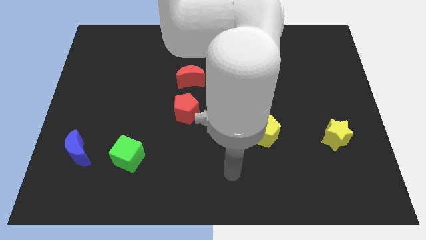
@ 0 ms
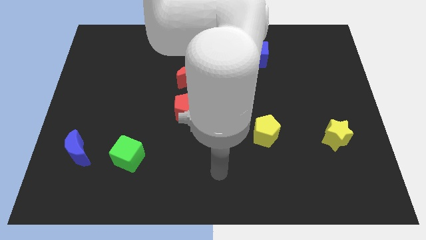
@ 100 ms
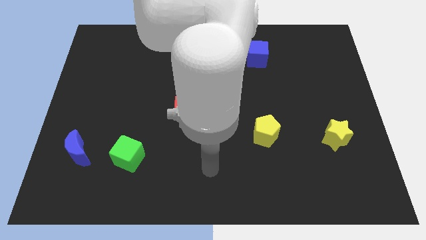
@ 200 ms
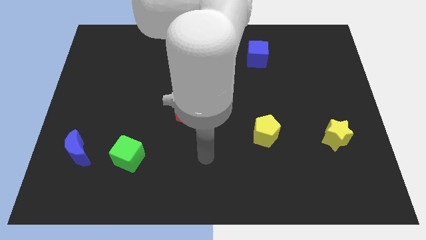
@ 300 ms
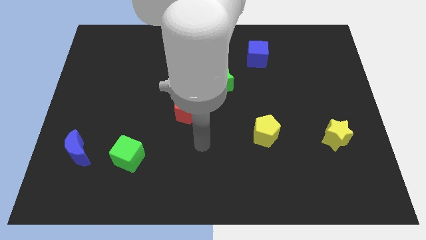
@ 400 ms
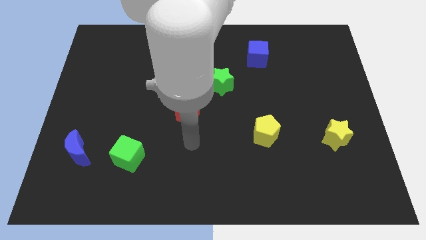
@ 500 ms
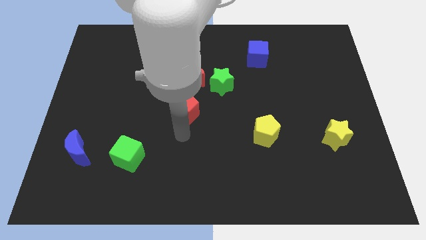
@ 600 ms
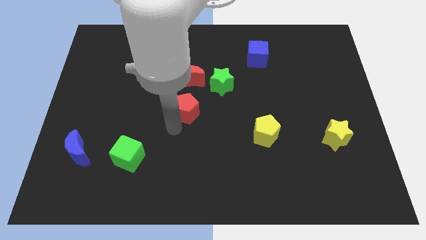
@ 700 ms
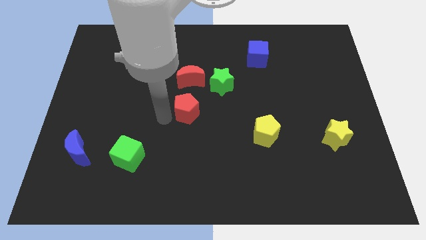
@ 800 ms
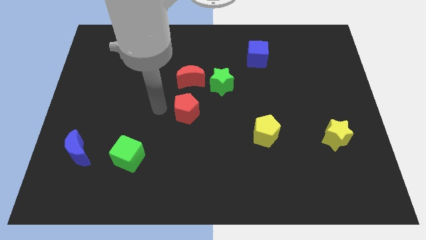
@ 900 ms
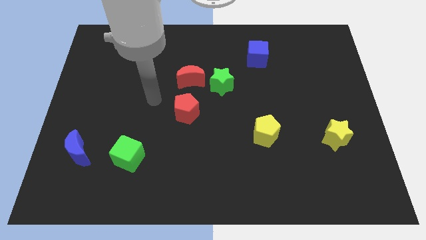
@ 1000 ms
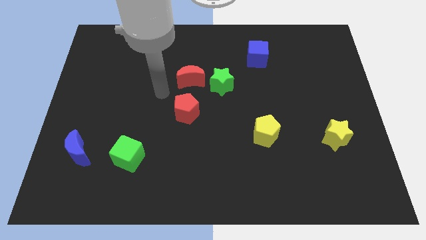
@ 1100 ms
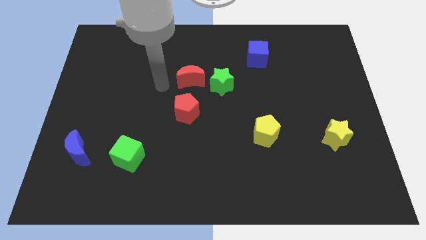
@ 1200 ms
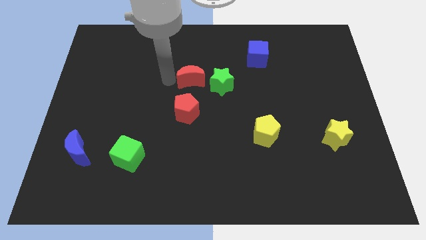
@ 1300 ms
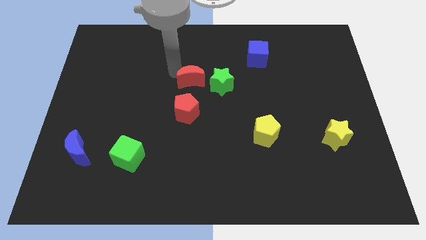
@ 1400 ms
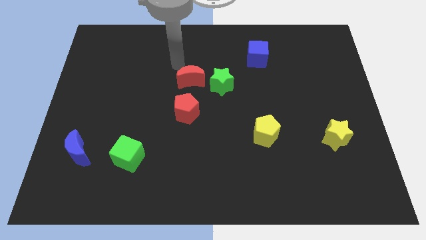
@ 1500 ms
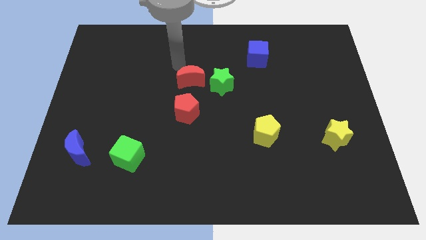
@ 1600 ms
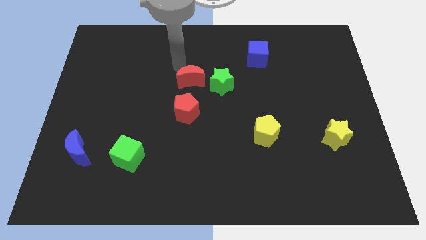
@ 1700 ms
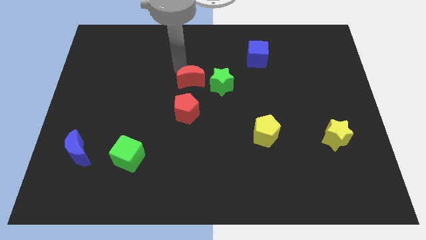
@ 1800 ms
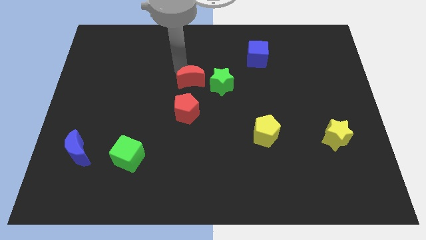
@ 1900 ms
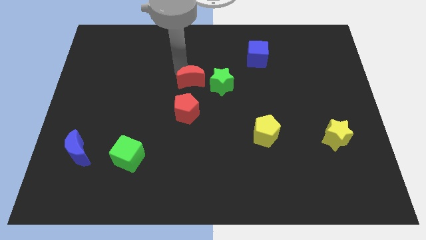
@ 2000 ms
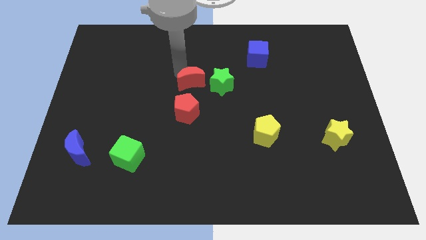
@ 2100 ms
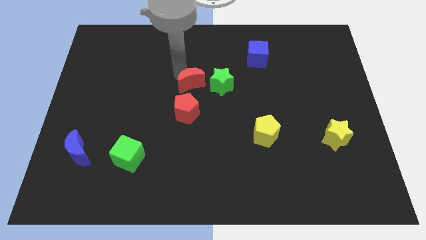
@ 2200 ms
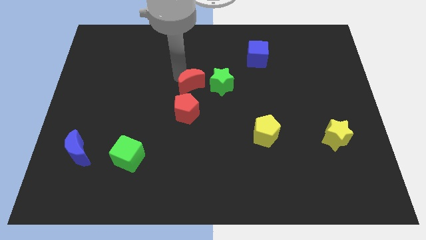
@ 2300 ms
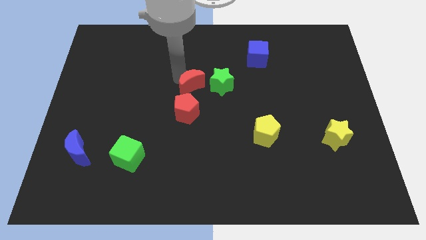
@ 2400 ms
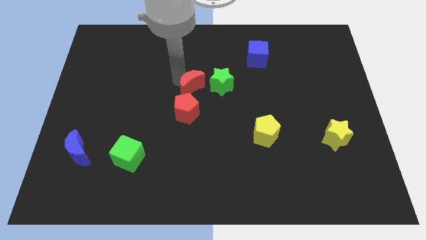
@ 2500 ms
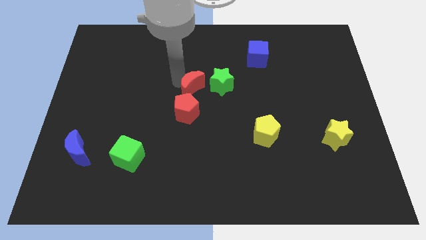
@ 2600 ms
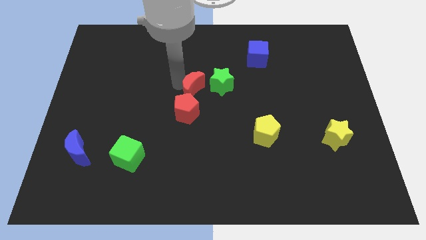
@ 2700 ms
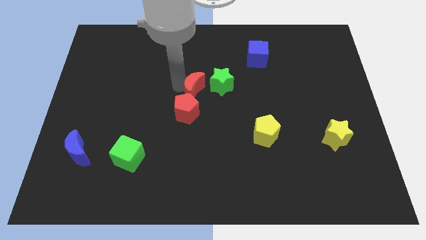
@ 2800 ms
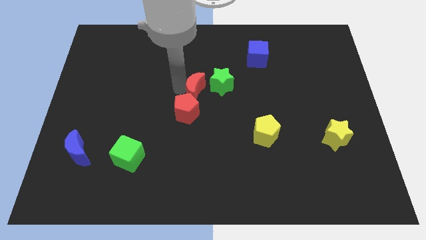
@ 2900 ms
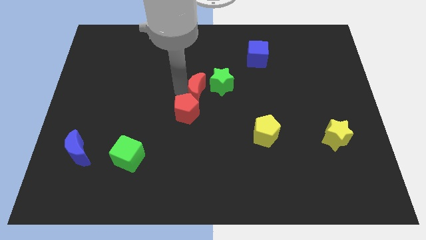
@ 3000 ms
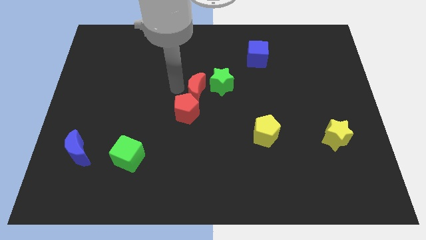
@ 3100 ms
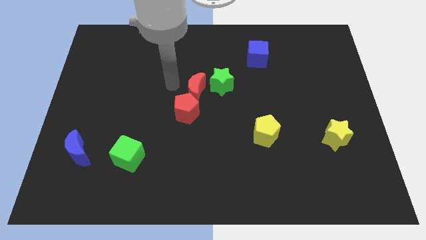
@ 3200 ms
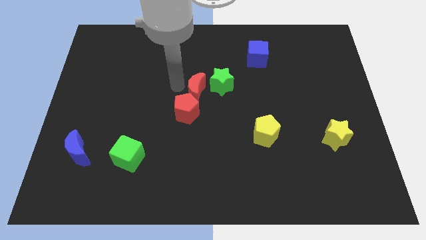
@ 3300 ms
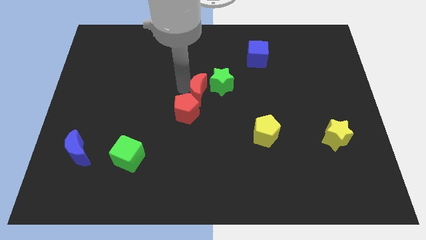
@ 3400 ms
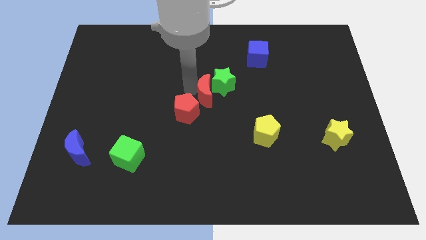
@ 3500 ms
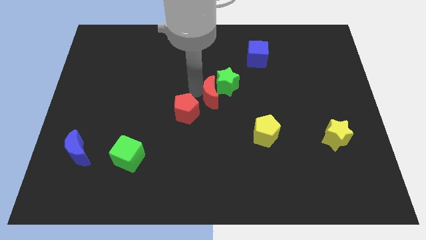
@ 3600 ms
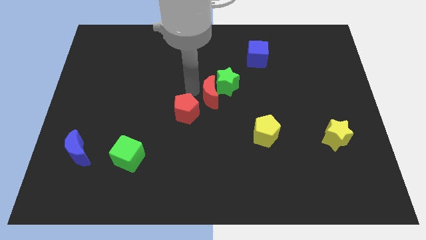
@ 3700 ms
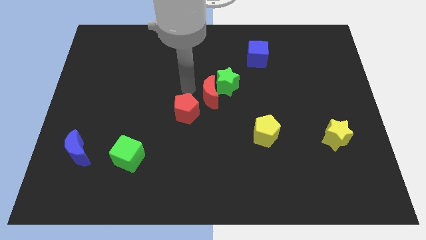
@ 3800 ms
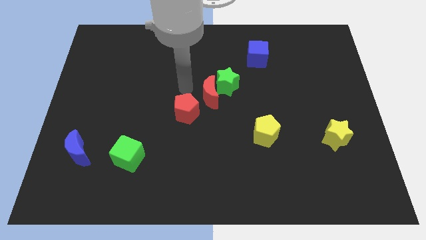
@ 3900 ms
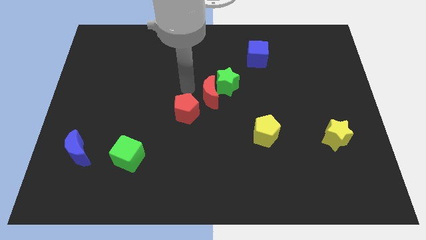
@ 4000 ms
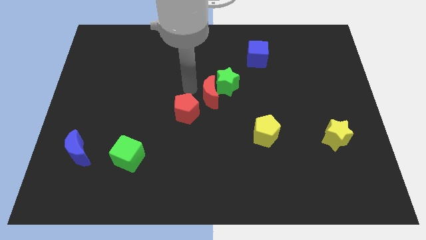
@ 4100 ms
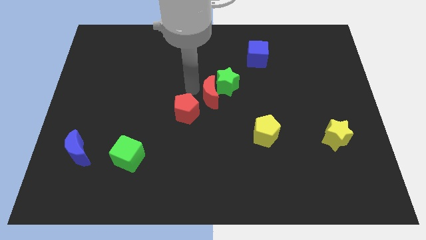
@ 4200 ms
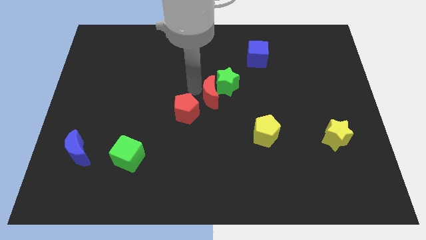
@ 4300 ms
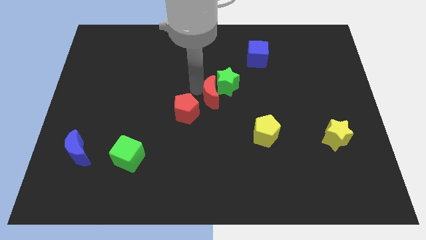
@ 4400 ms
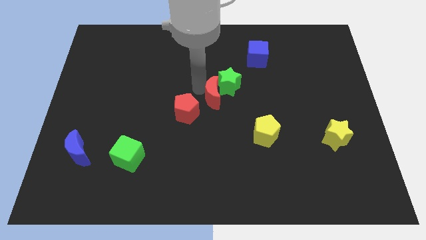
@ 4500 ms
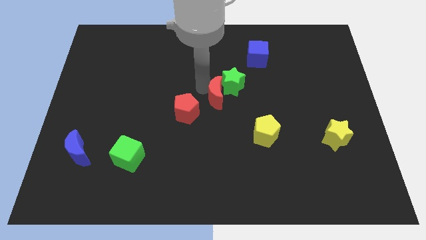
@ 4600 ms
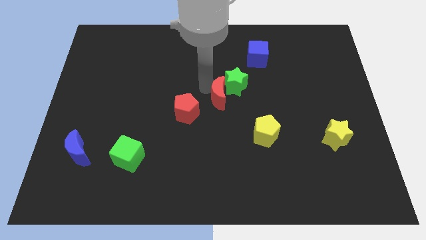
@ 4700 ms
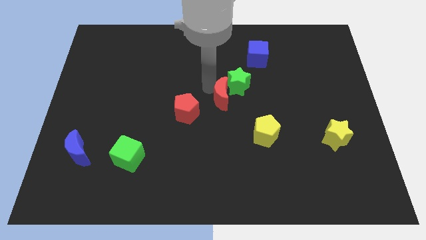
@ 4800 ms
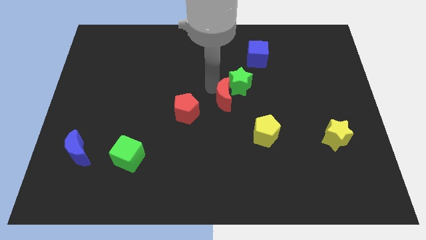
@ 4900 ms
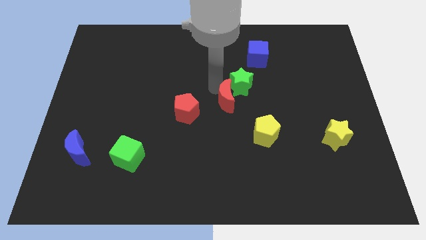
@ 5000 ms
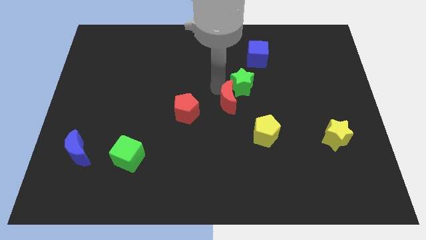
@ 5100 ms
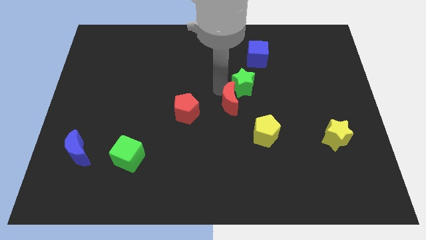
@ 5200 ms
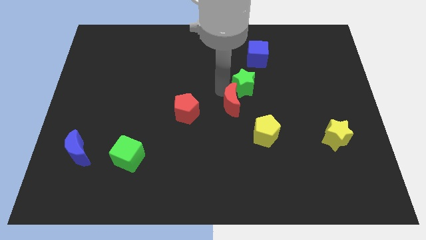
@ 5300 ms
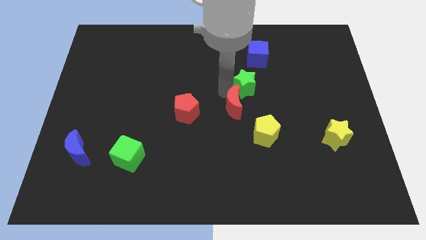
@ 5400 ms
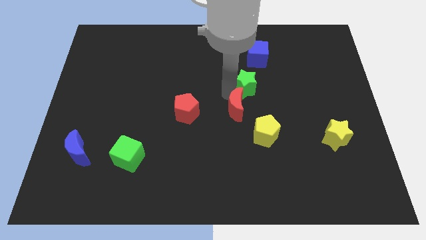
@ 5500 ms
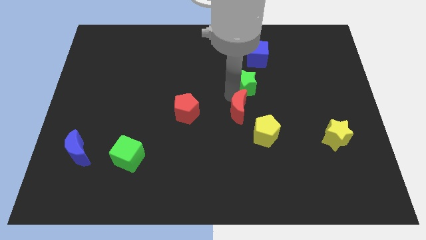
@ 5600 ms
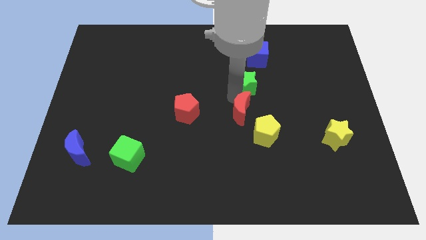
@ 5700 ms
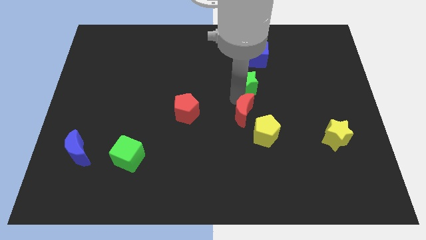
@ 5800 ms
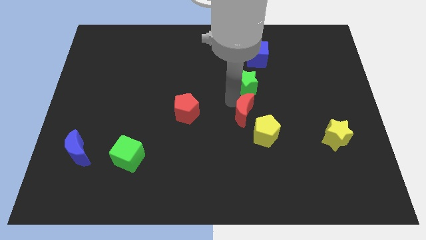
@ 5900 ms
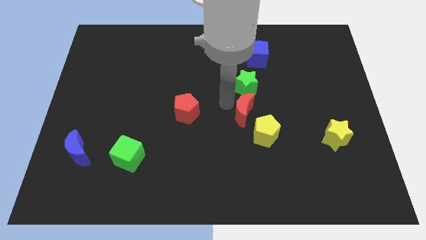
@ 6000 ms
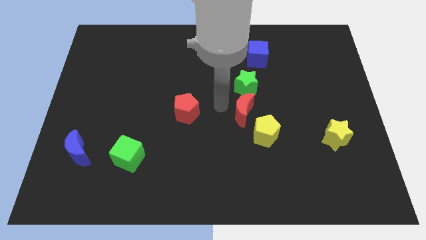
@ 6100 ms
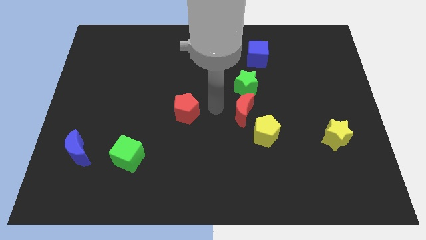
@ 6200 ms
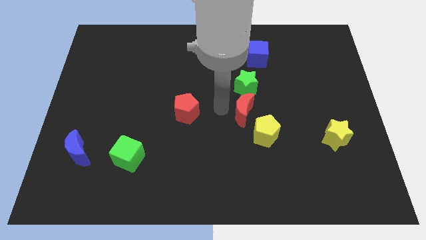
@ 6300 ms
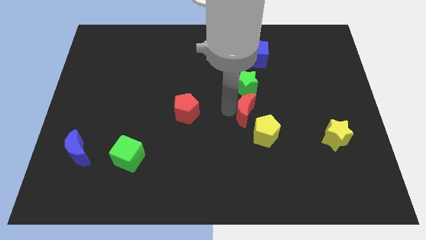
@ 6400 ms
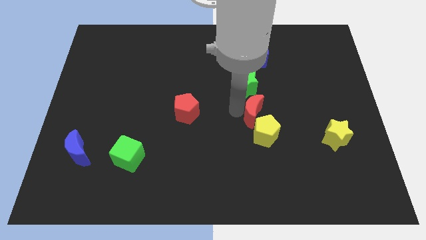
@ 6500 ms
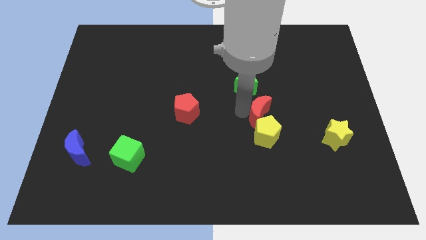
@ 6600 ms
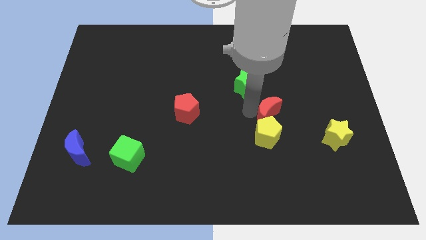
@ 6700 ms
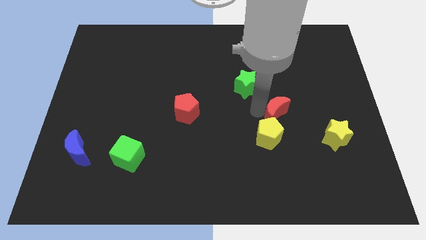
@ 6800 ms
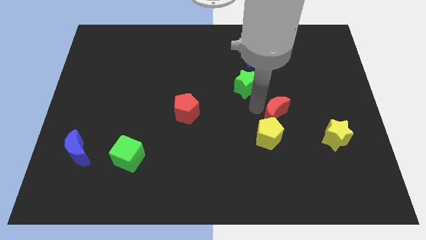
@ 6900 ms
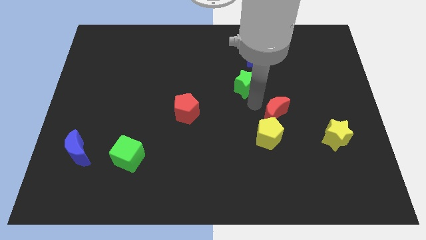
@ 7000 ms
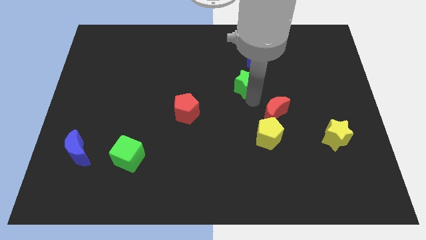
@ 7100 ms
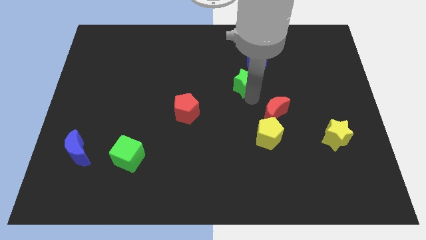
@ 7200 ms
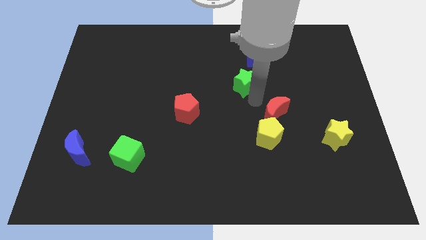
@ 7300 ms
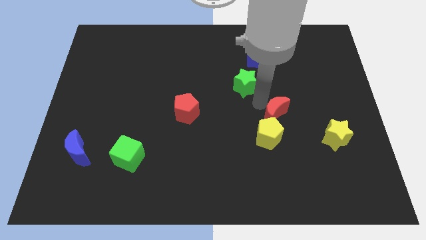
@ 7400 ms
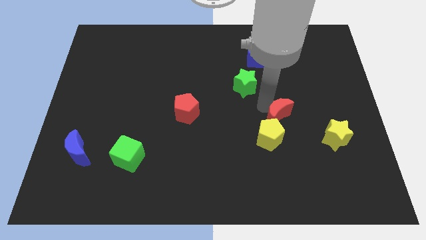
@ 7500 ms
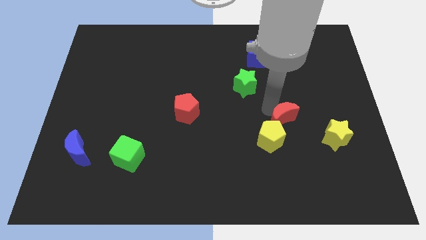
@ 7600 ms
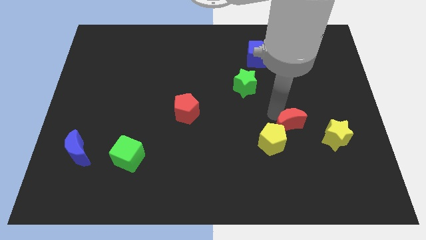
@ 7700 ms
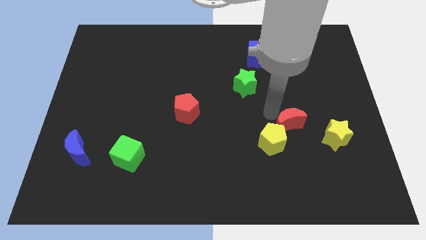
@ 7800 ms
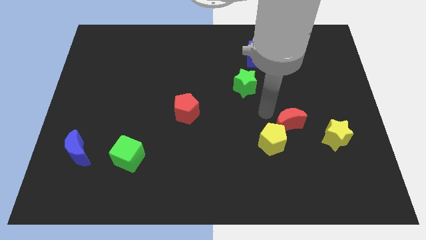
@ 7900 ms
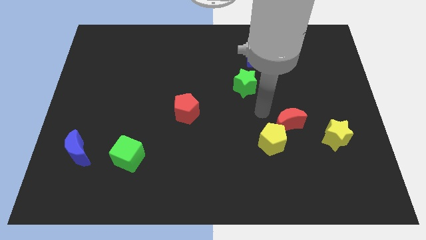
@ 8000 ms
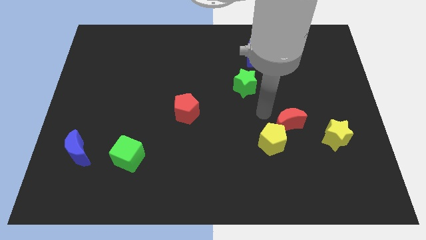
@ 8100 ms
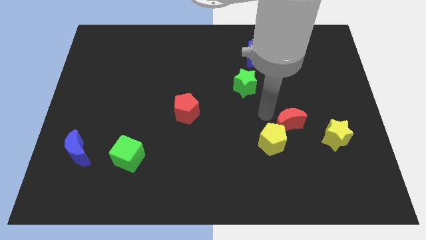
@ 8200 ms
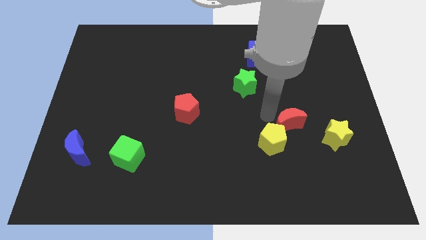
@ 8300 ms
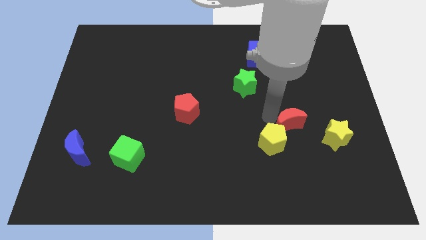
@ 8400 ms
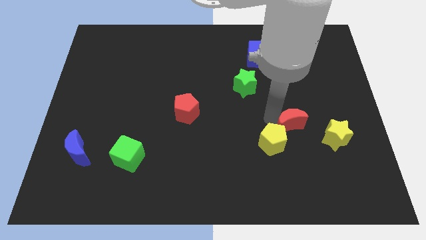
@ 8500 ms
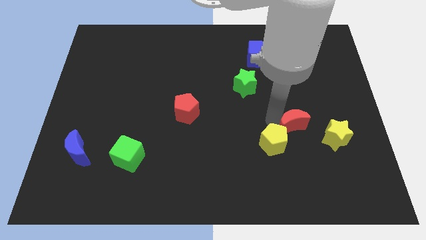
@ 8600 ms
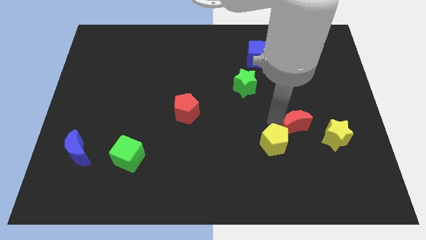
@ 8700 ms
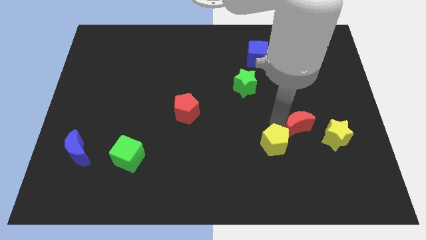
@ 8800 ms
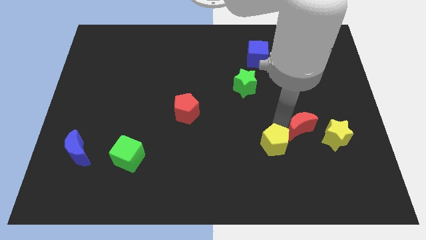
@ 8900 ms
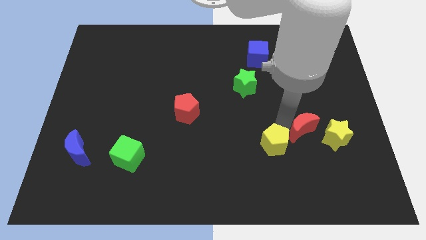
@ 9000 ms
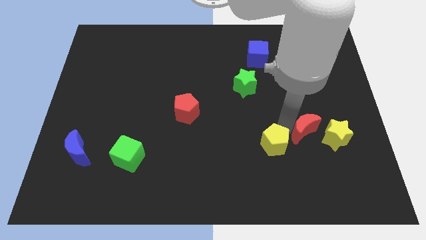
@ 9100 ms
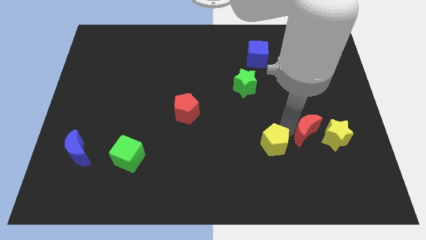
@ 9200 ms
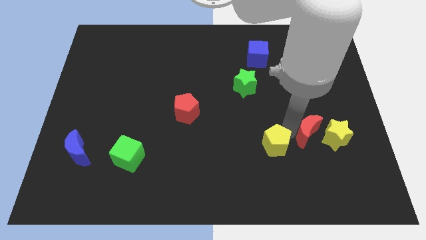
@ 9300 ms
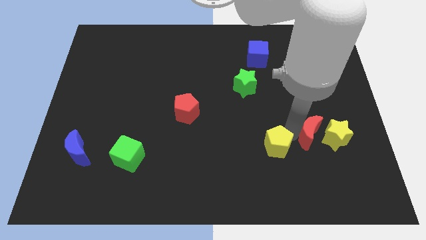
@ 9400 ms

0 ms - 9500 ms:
push the red moon close to the yellow star
